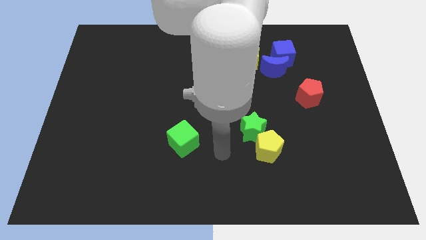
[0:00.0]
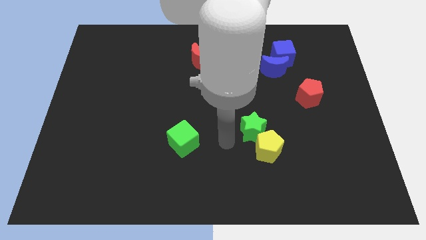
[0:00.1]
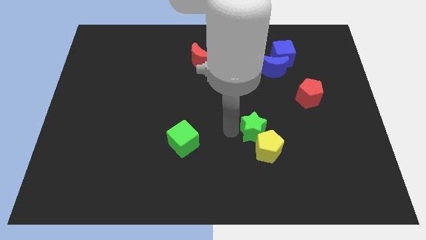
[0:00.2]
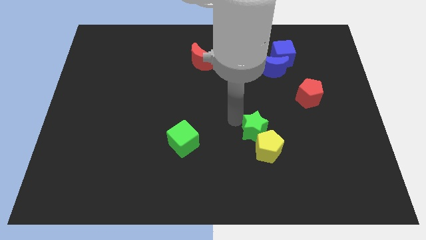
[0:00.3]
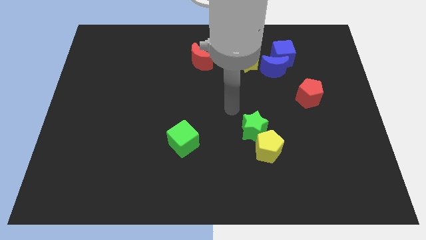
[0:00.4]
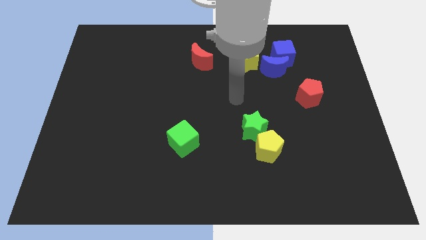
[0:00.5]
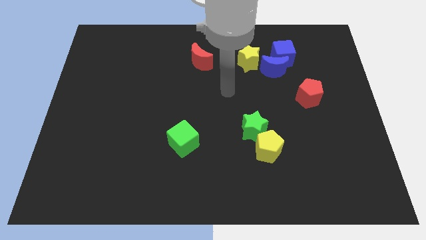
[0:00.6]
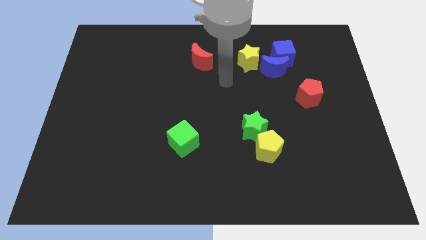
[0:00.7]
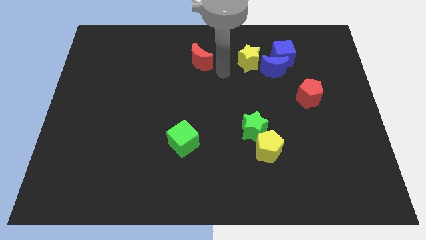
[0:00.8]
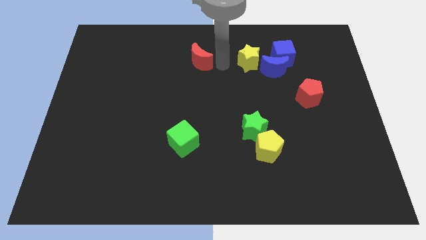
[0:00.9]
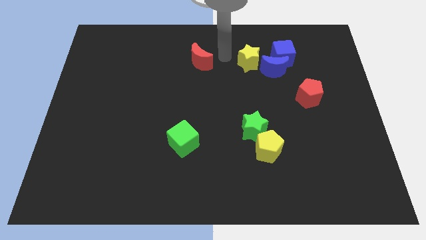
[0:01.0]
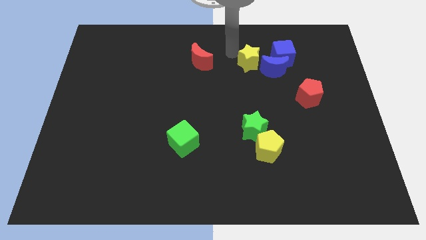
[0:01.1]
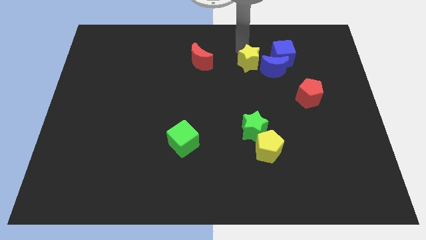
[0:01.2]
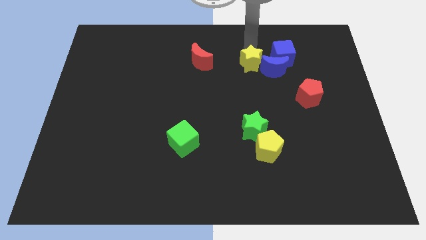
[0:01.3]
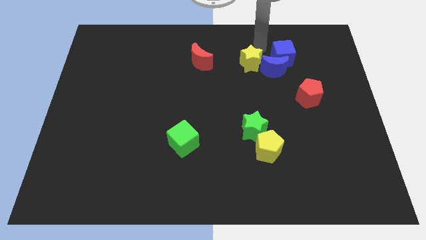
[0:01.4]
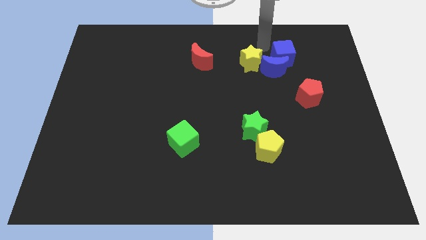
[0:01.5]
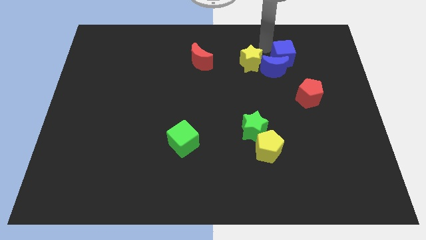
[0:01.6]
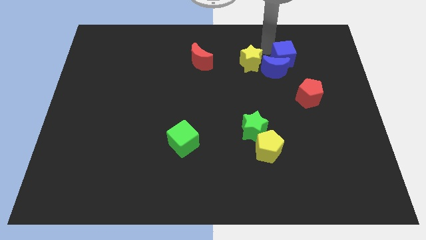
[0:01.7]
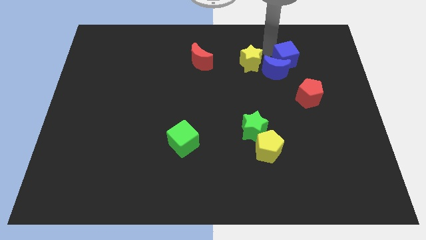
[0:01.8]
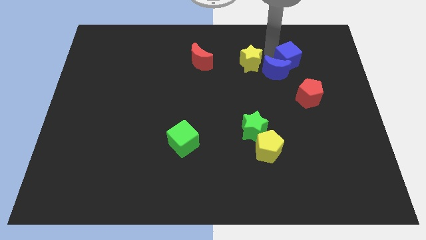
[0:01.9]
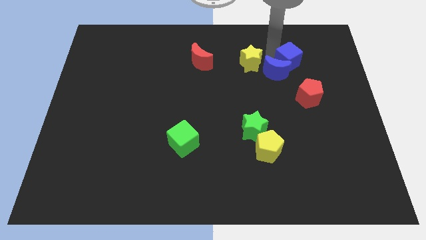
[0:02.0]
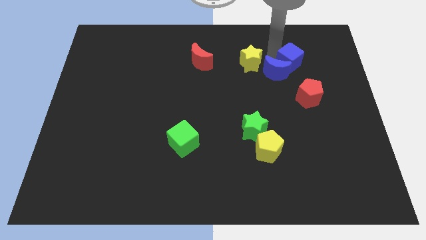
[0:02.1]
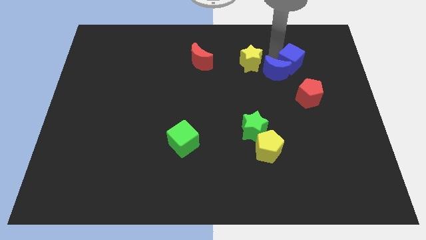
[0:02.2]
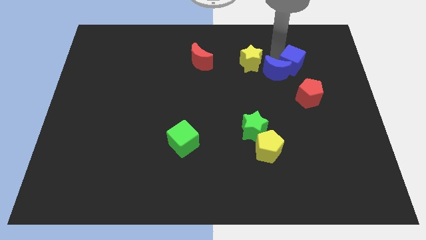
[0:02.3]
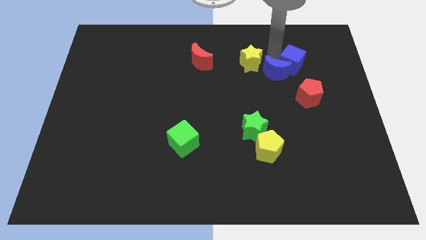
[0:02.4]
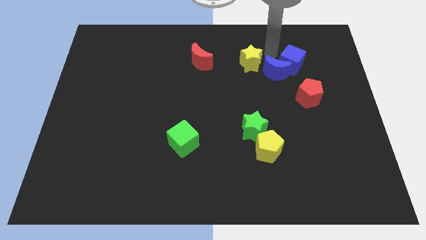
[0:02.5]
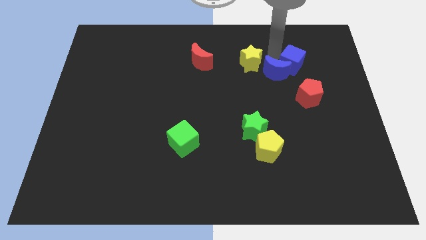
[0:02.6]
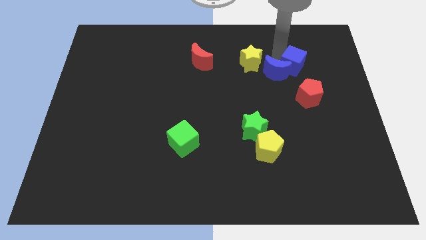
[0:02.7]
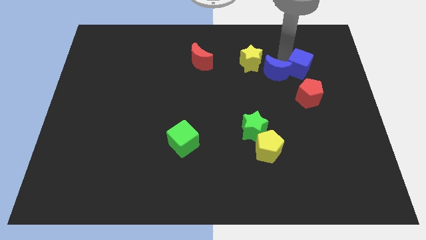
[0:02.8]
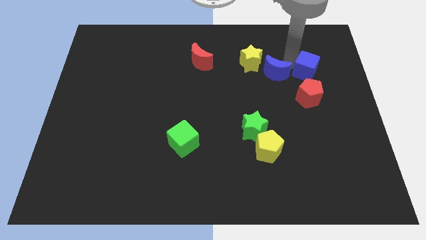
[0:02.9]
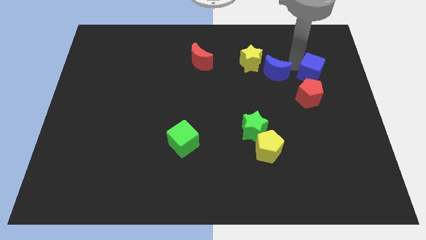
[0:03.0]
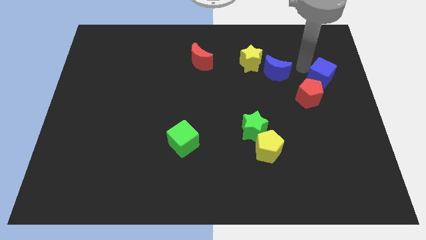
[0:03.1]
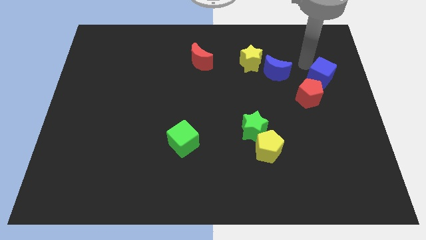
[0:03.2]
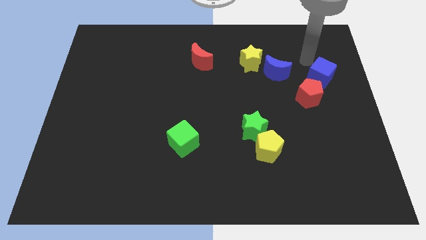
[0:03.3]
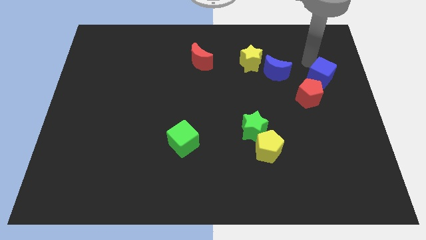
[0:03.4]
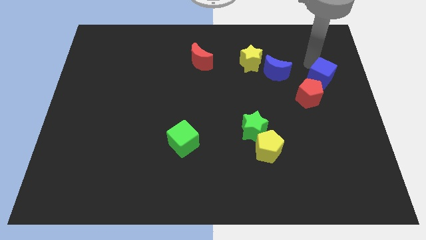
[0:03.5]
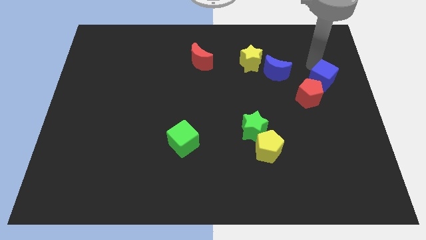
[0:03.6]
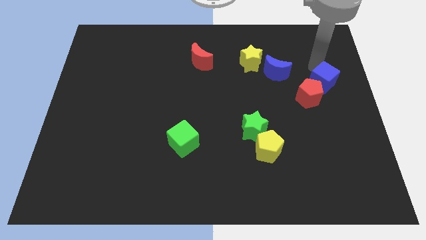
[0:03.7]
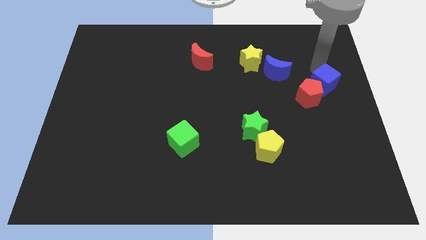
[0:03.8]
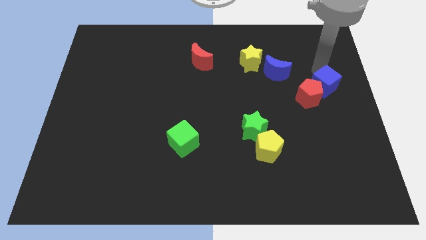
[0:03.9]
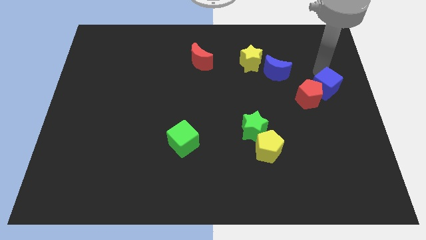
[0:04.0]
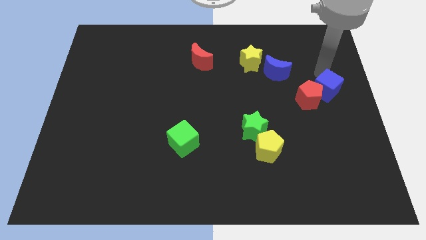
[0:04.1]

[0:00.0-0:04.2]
push the blue cube a little bit down

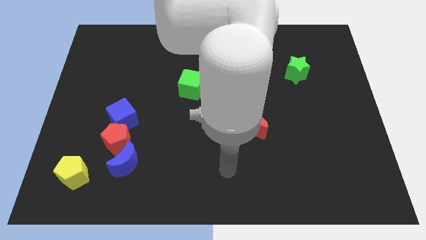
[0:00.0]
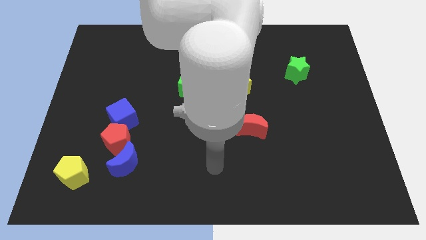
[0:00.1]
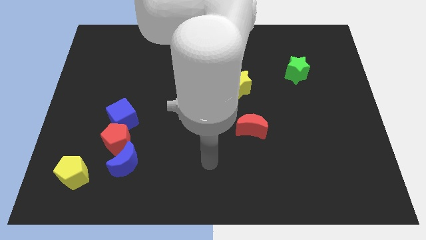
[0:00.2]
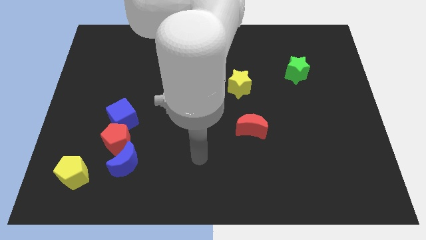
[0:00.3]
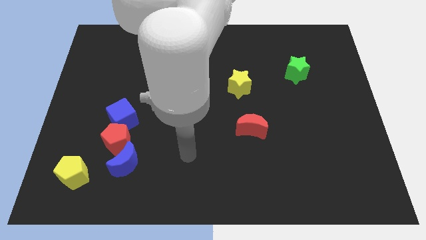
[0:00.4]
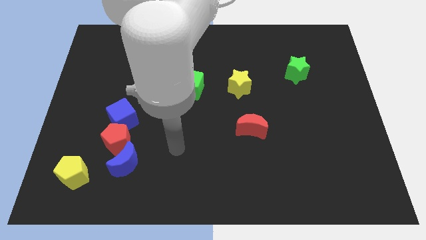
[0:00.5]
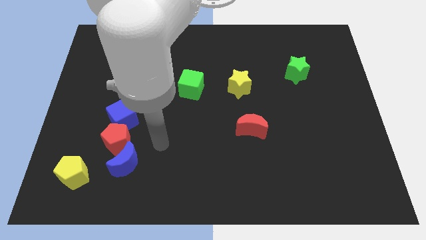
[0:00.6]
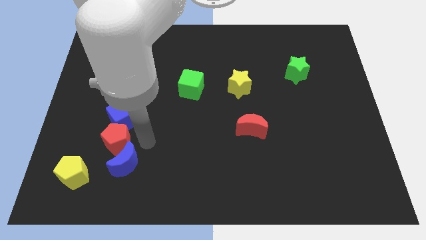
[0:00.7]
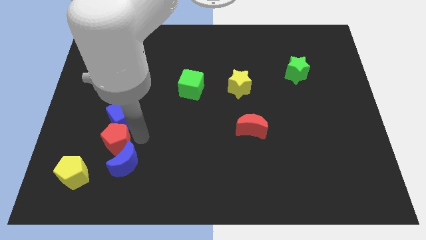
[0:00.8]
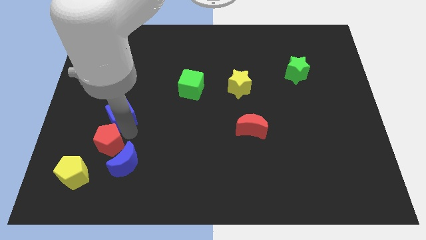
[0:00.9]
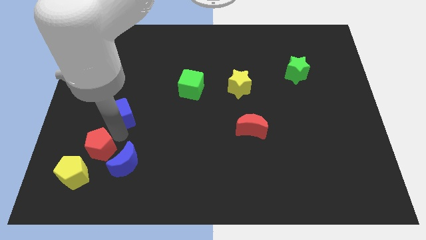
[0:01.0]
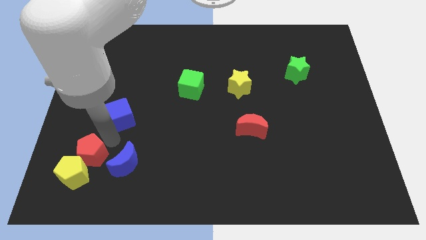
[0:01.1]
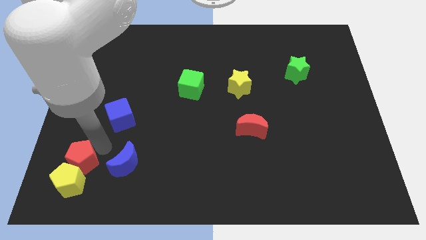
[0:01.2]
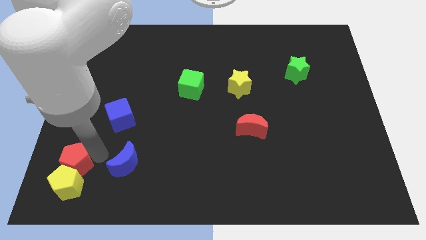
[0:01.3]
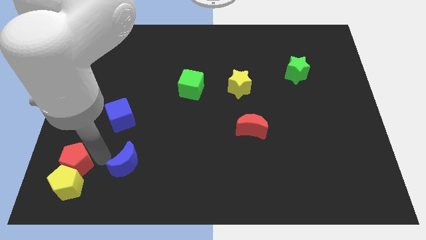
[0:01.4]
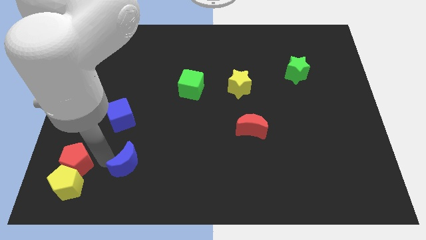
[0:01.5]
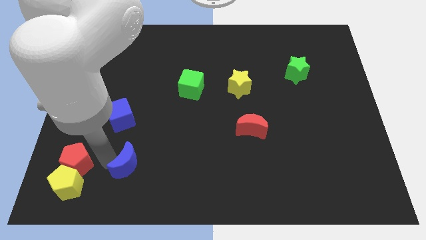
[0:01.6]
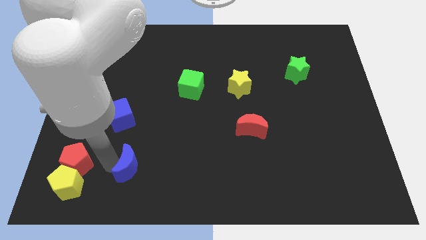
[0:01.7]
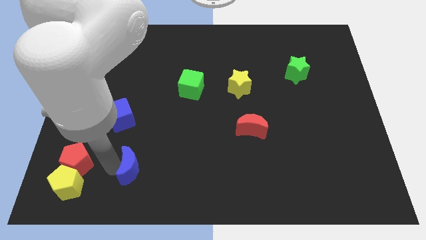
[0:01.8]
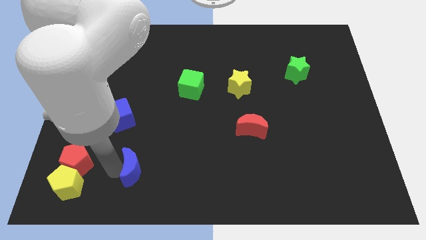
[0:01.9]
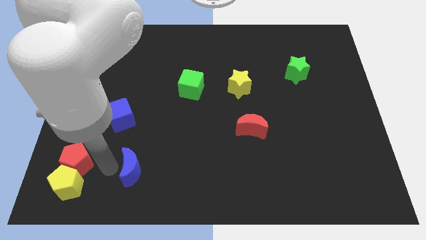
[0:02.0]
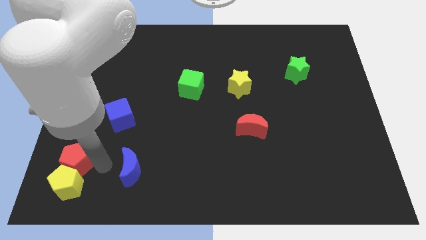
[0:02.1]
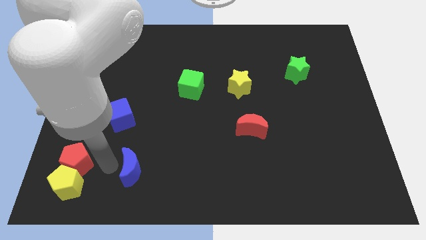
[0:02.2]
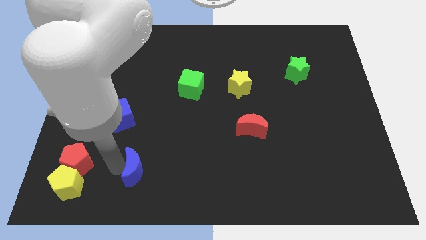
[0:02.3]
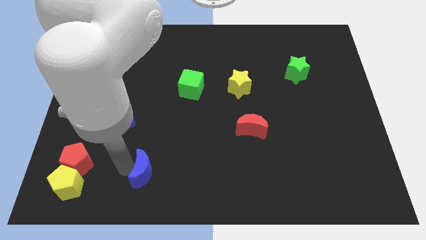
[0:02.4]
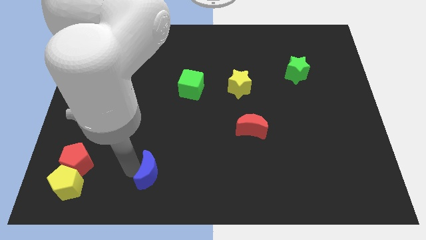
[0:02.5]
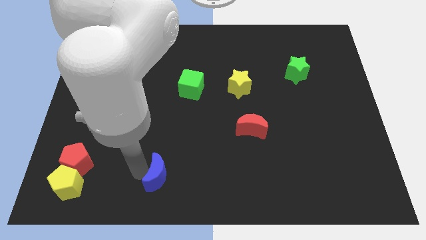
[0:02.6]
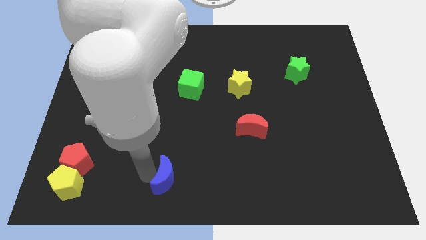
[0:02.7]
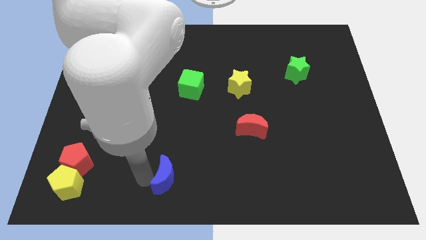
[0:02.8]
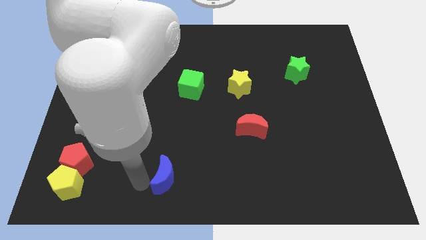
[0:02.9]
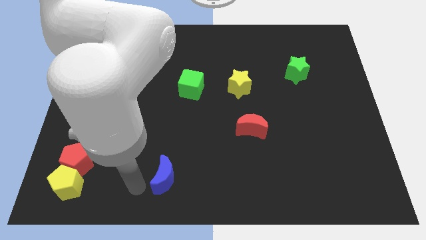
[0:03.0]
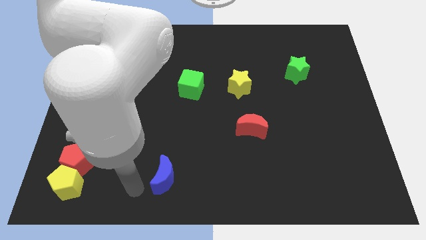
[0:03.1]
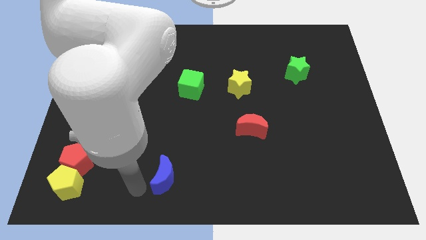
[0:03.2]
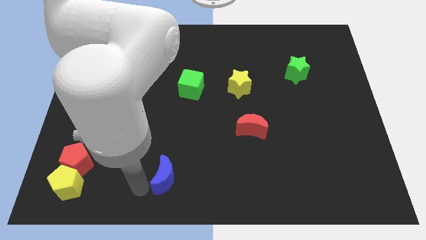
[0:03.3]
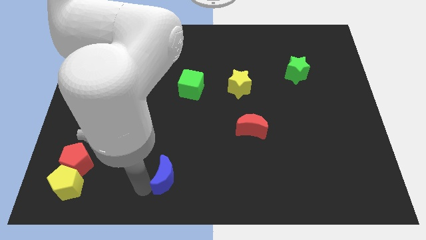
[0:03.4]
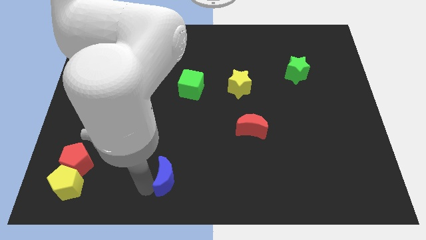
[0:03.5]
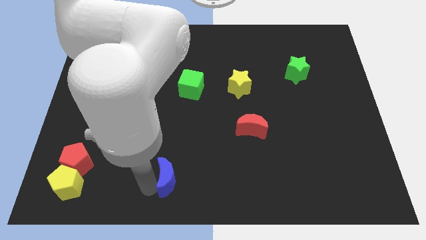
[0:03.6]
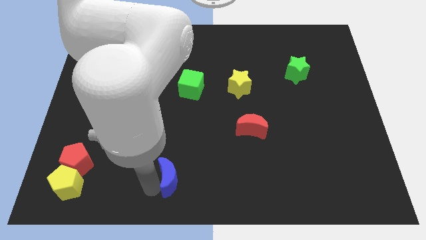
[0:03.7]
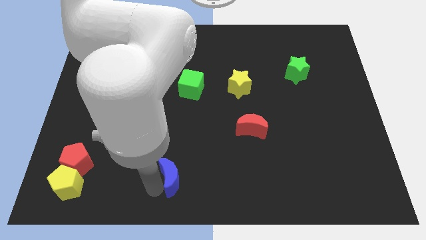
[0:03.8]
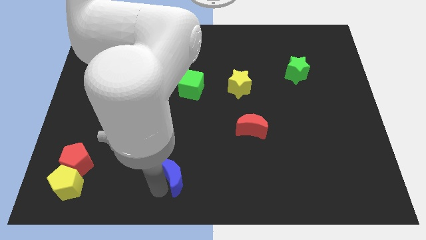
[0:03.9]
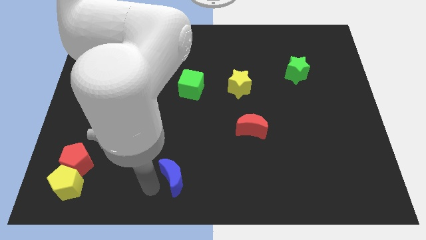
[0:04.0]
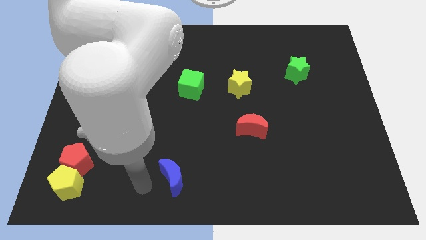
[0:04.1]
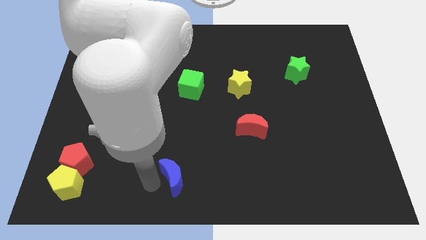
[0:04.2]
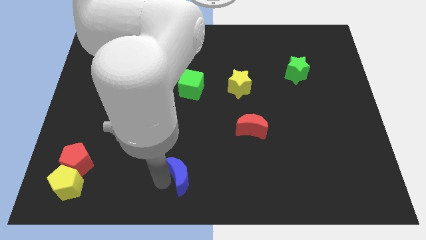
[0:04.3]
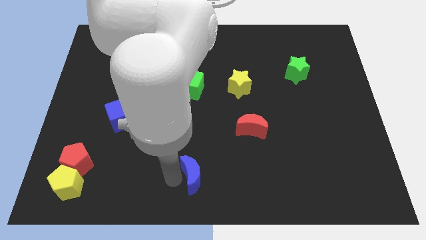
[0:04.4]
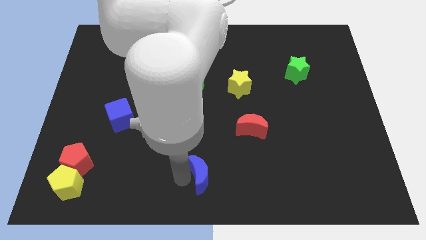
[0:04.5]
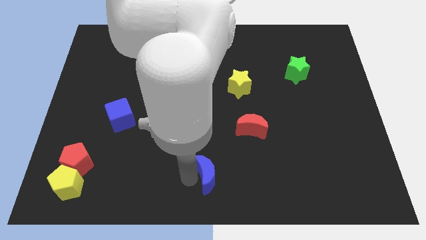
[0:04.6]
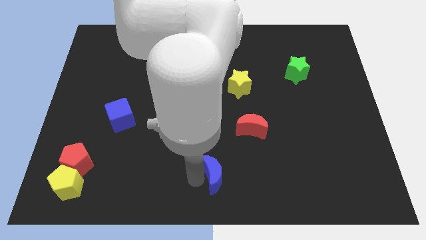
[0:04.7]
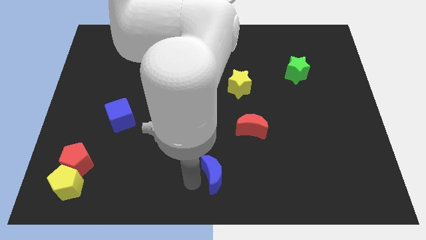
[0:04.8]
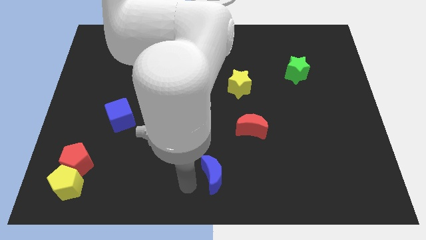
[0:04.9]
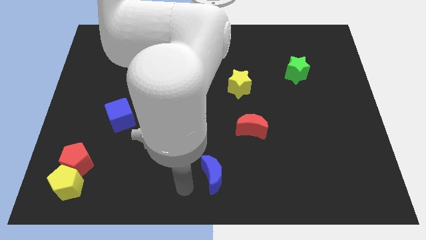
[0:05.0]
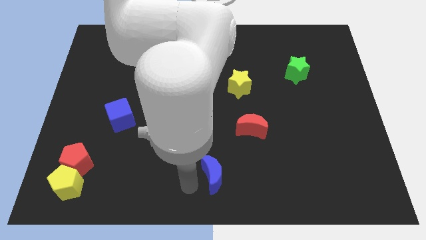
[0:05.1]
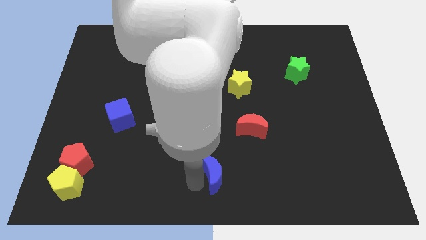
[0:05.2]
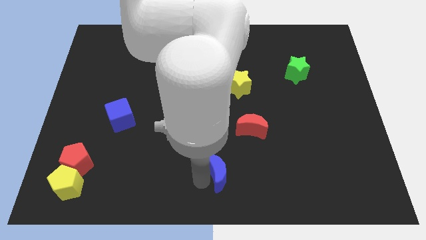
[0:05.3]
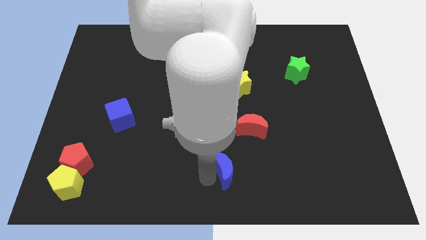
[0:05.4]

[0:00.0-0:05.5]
push the blue moon right
